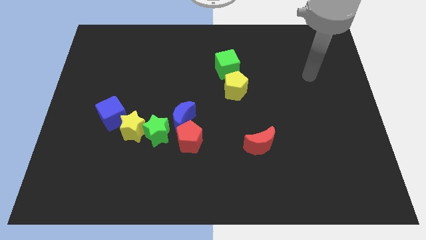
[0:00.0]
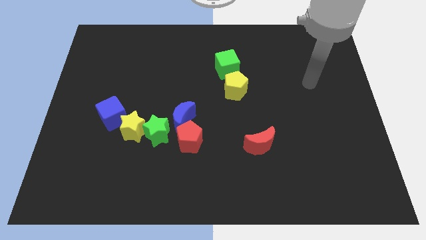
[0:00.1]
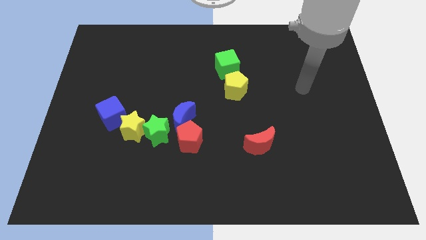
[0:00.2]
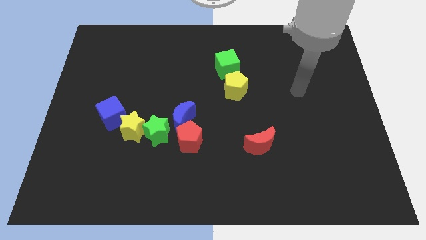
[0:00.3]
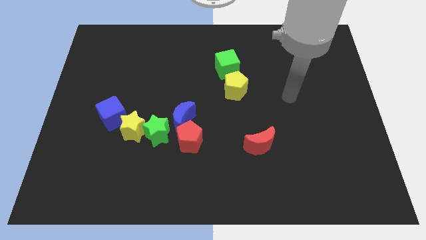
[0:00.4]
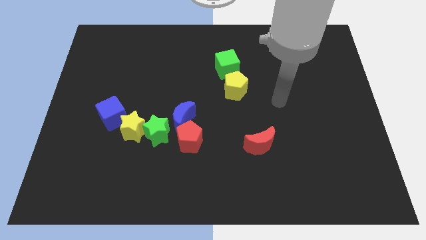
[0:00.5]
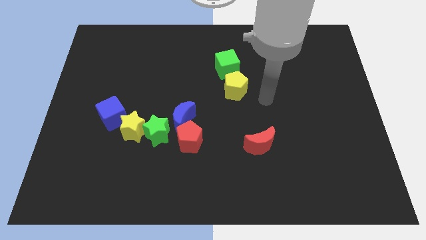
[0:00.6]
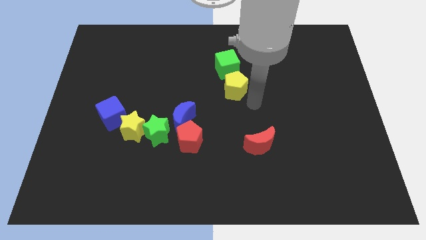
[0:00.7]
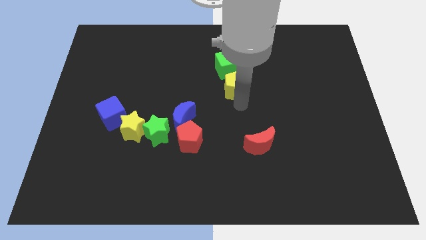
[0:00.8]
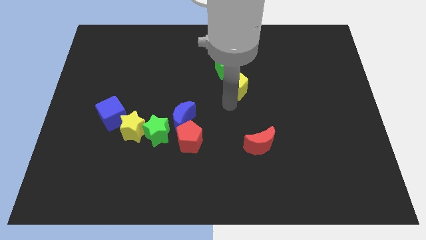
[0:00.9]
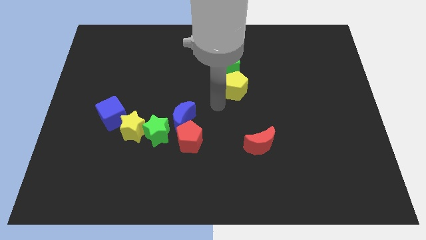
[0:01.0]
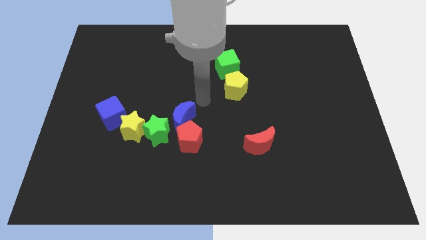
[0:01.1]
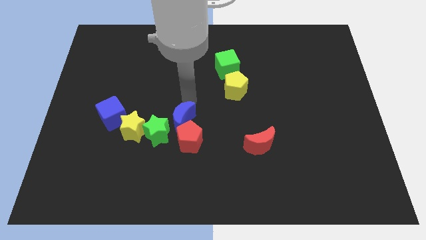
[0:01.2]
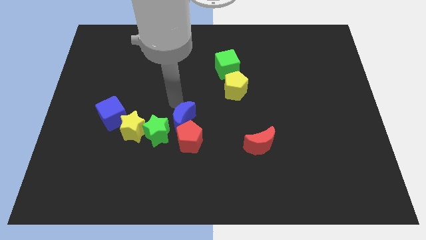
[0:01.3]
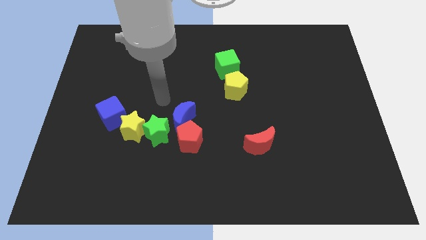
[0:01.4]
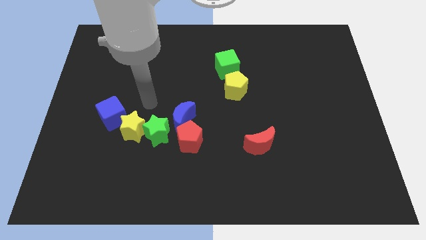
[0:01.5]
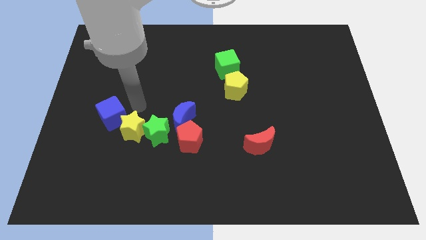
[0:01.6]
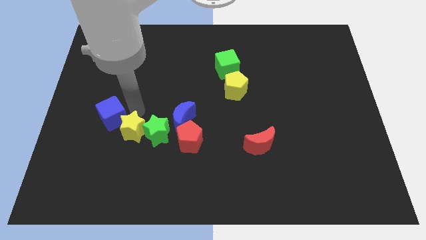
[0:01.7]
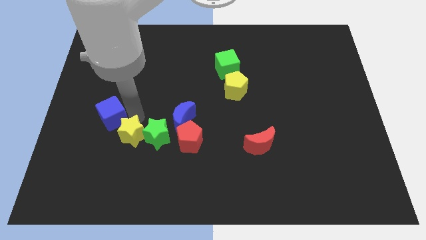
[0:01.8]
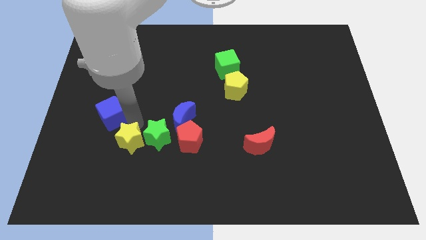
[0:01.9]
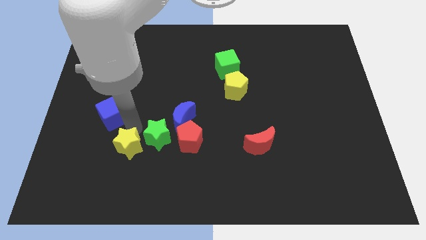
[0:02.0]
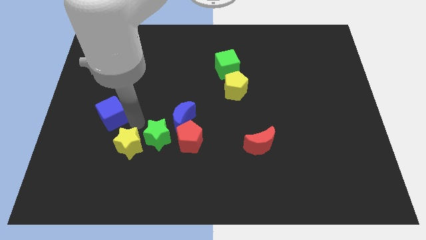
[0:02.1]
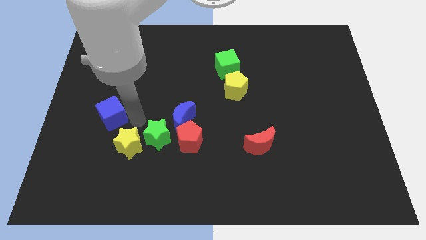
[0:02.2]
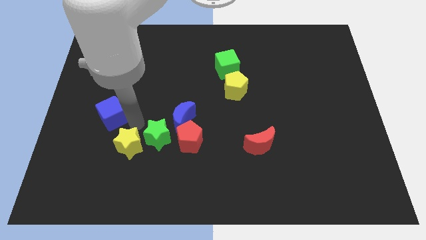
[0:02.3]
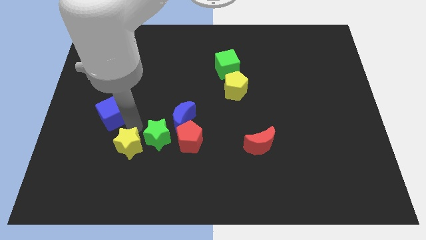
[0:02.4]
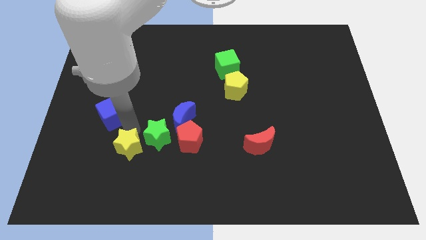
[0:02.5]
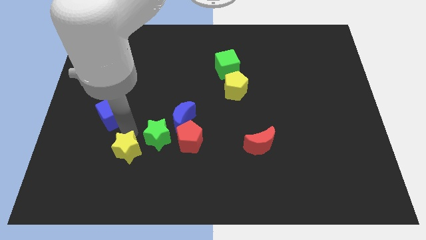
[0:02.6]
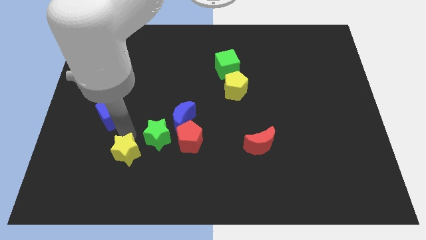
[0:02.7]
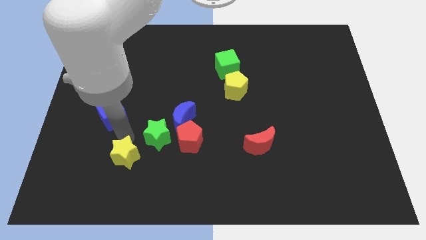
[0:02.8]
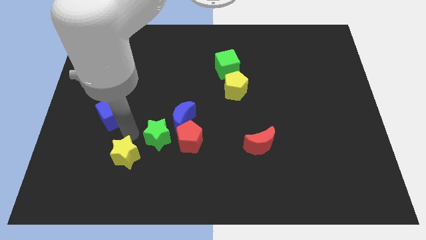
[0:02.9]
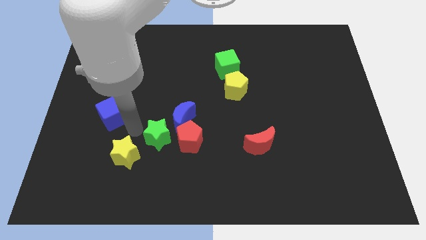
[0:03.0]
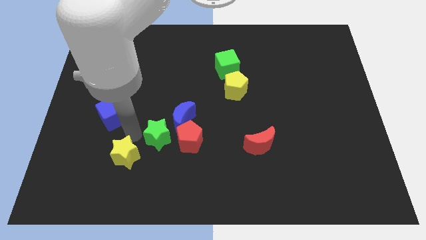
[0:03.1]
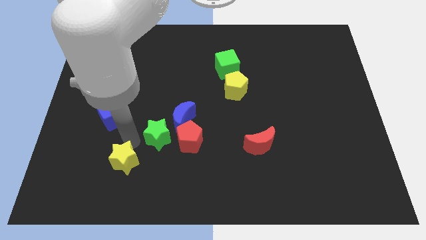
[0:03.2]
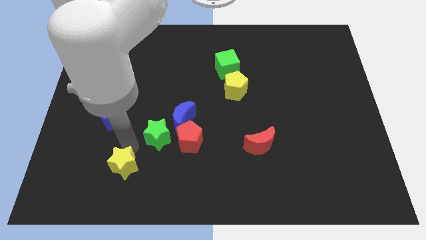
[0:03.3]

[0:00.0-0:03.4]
separate the yellow star from the green star and blue cube

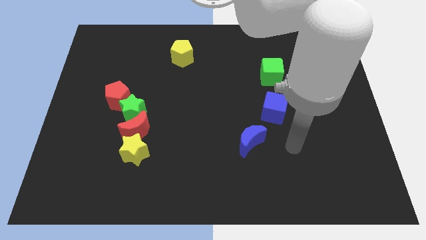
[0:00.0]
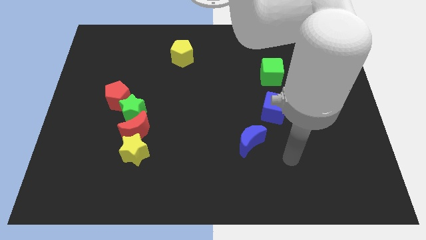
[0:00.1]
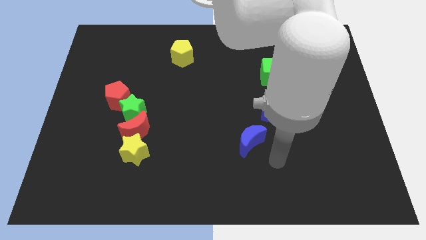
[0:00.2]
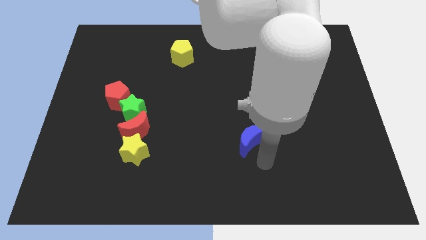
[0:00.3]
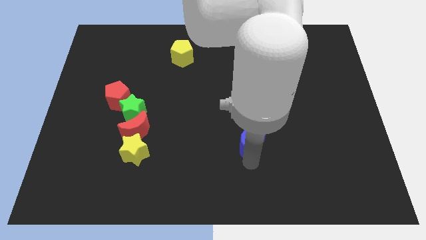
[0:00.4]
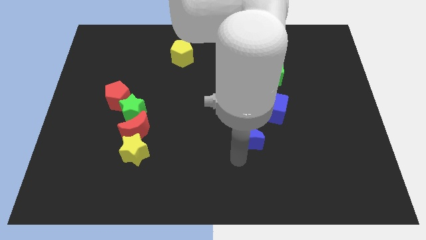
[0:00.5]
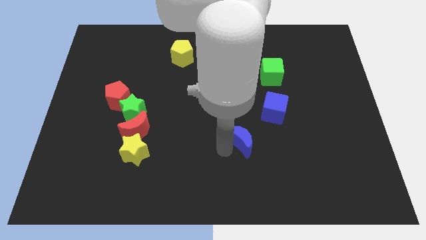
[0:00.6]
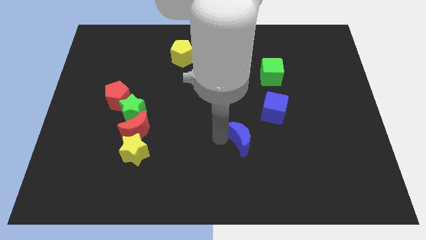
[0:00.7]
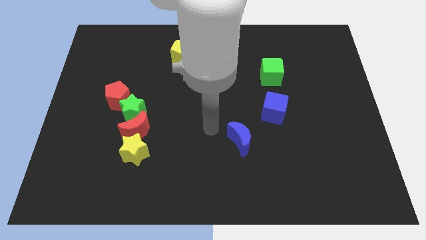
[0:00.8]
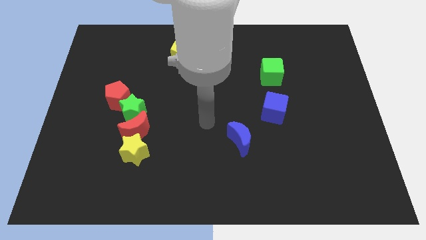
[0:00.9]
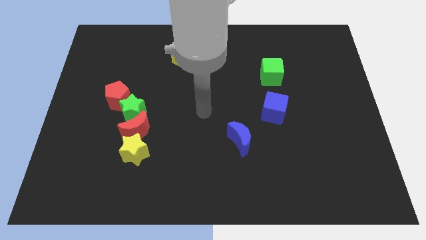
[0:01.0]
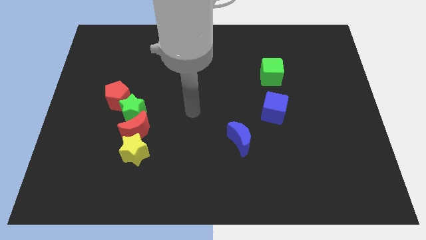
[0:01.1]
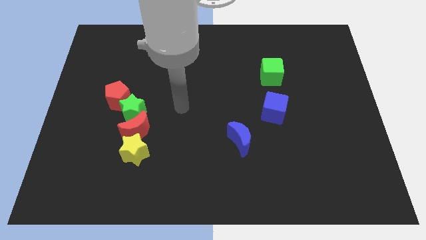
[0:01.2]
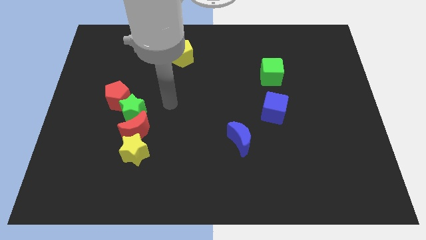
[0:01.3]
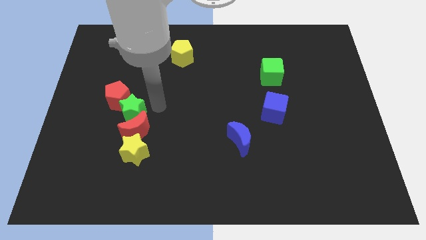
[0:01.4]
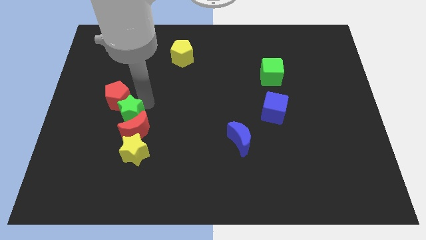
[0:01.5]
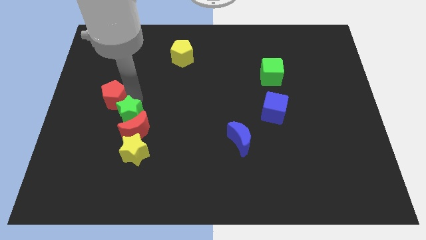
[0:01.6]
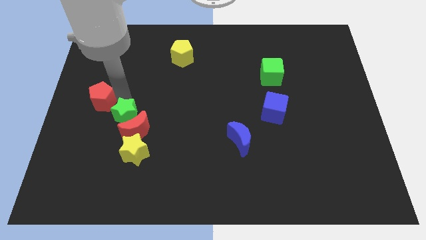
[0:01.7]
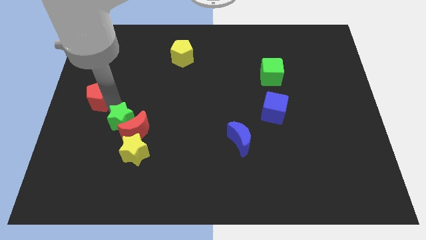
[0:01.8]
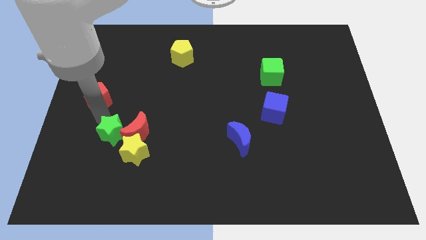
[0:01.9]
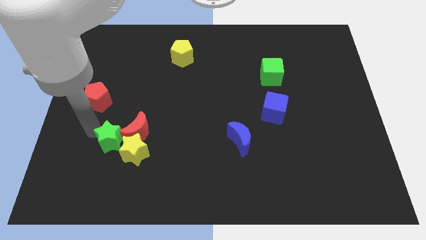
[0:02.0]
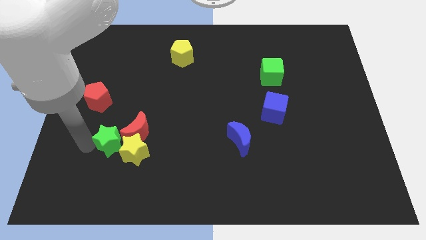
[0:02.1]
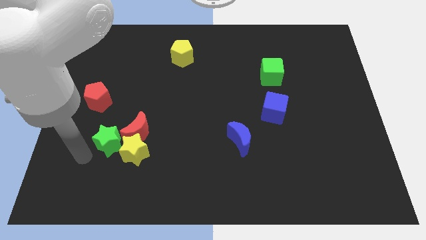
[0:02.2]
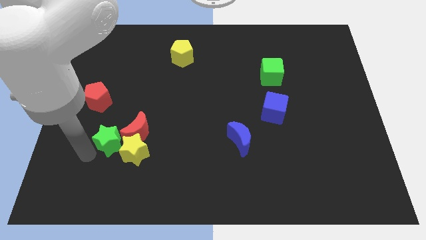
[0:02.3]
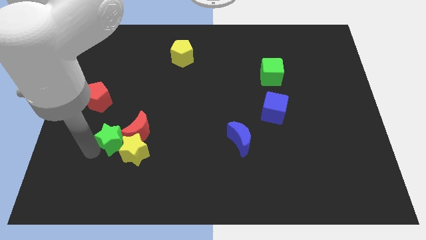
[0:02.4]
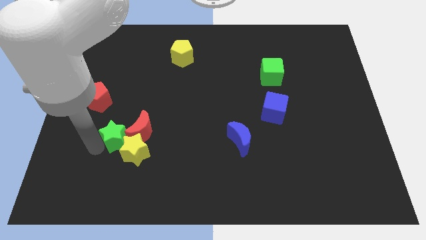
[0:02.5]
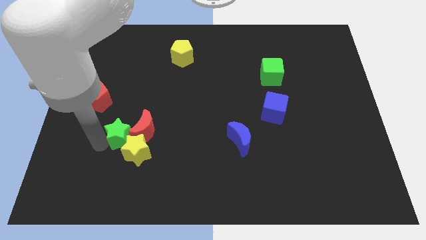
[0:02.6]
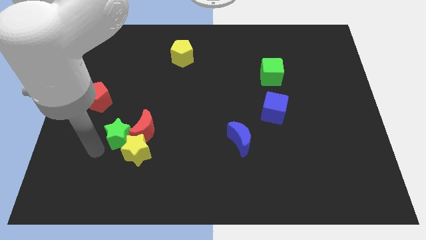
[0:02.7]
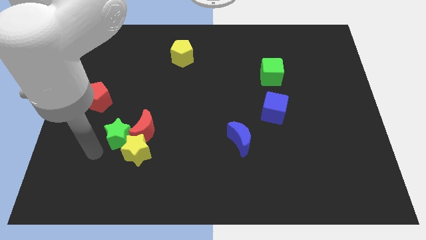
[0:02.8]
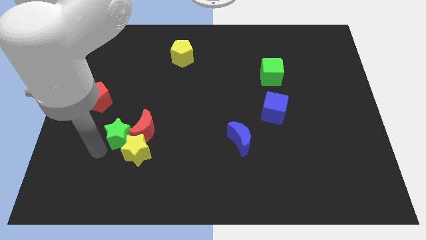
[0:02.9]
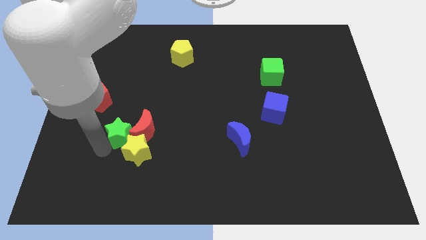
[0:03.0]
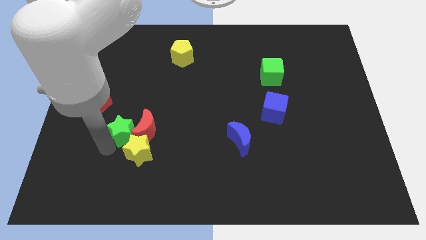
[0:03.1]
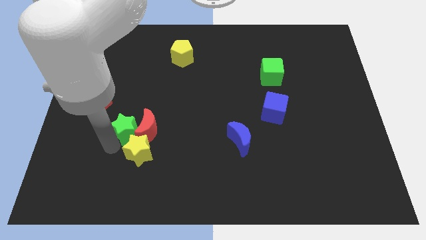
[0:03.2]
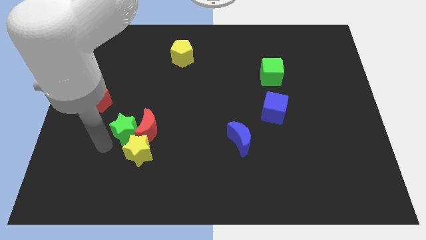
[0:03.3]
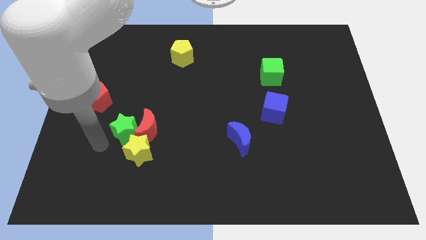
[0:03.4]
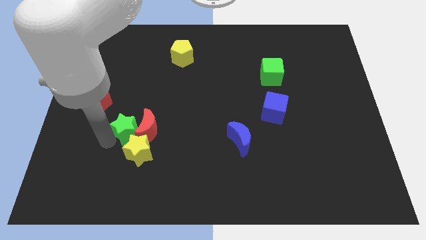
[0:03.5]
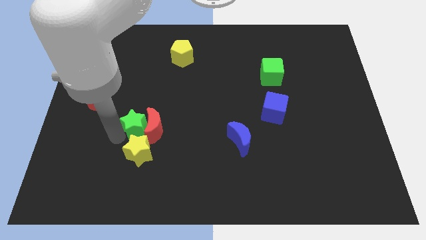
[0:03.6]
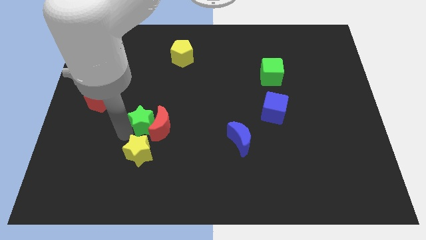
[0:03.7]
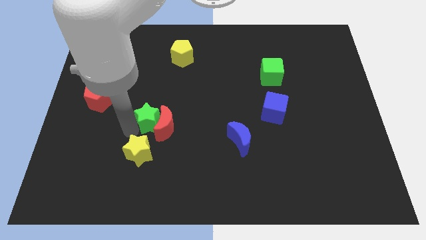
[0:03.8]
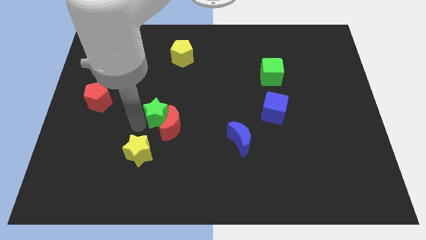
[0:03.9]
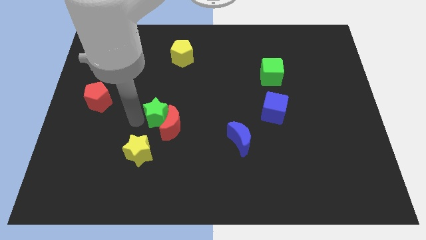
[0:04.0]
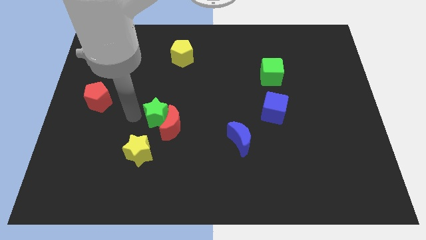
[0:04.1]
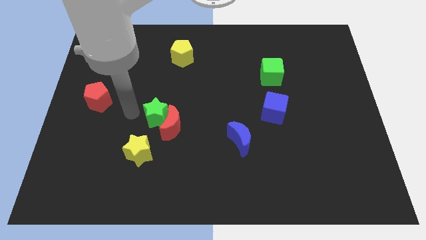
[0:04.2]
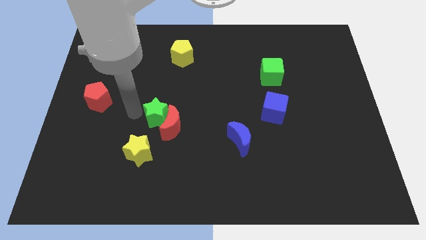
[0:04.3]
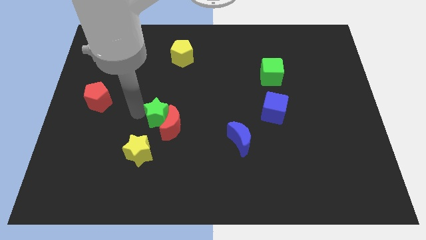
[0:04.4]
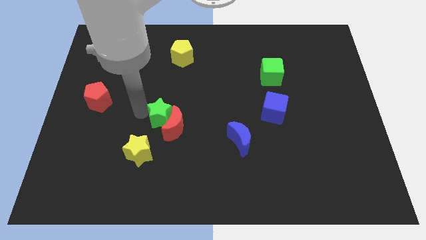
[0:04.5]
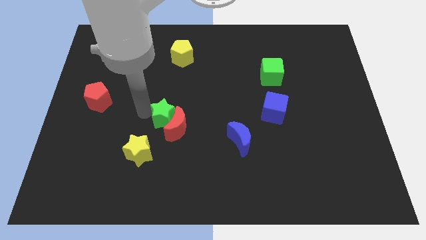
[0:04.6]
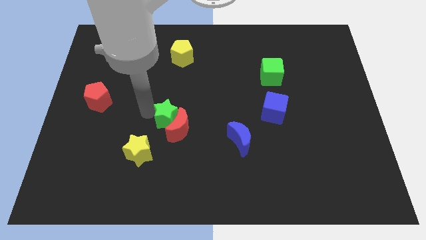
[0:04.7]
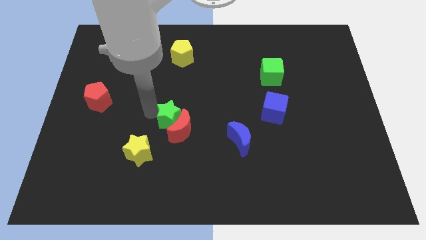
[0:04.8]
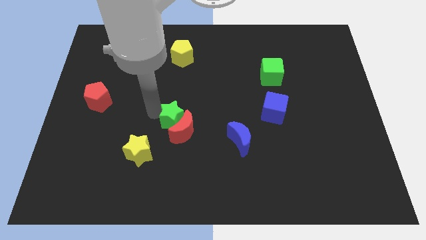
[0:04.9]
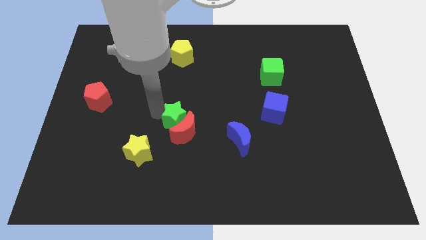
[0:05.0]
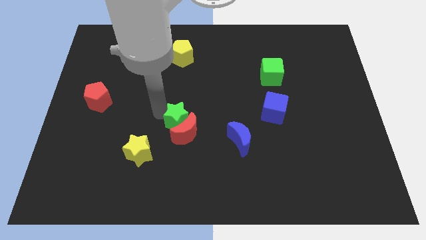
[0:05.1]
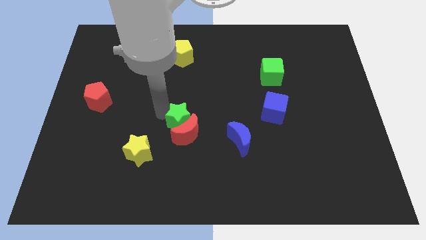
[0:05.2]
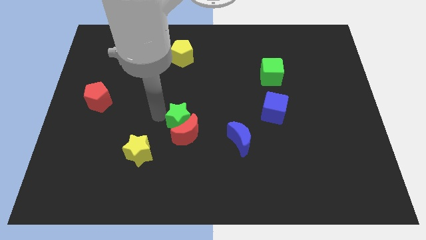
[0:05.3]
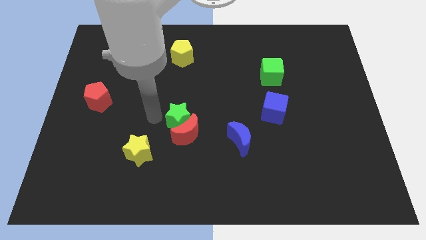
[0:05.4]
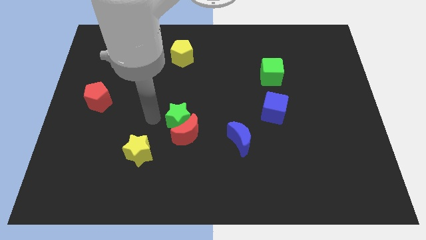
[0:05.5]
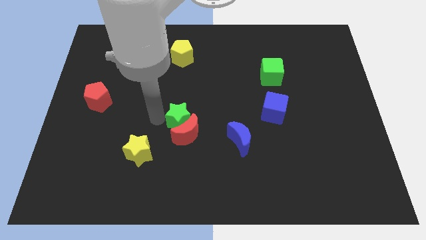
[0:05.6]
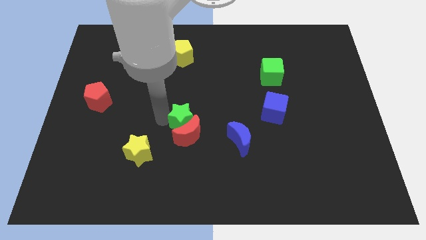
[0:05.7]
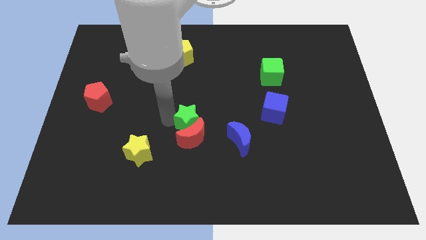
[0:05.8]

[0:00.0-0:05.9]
pull the green star apart from the red moon and red pentagon
